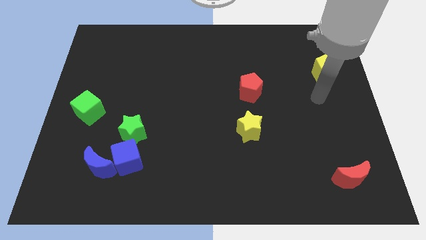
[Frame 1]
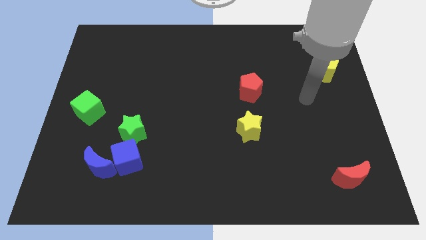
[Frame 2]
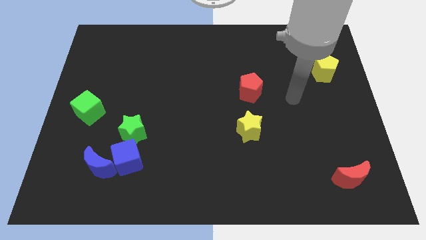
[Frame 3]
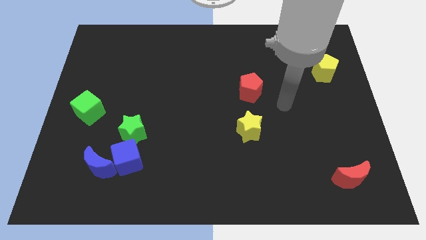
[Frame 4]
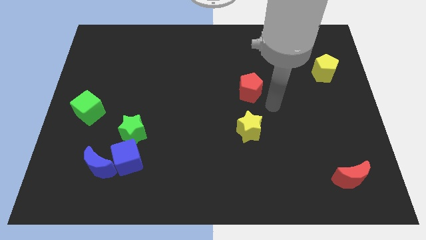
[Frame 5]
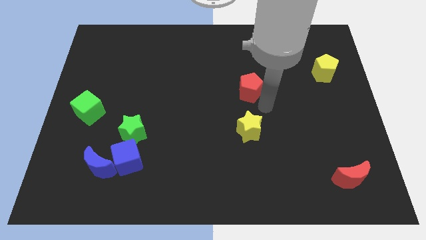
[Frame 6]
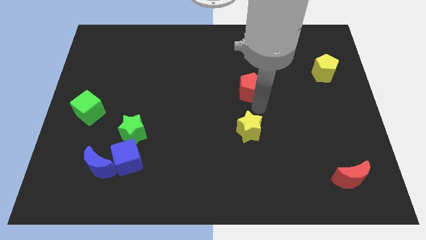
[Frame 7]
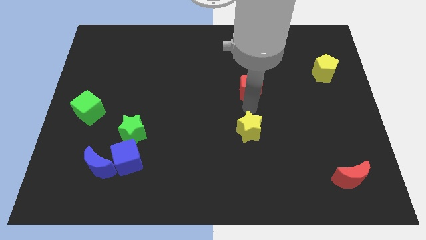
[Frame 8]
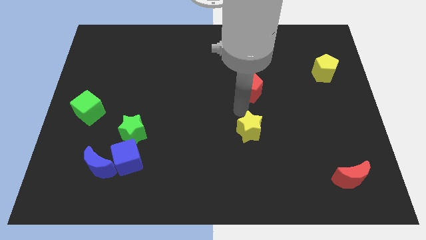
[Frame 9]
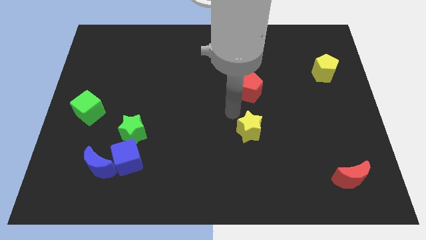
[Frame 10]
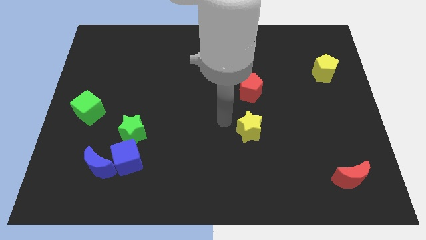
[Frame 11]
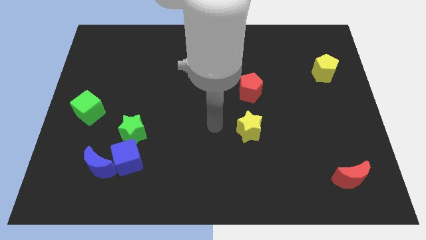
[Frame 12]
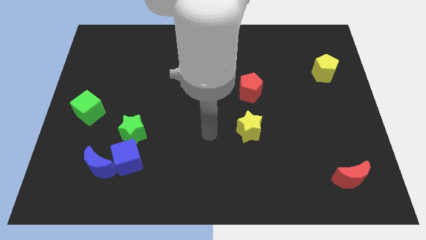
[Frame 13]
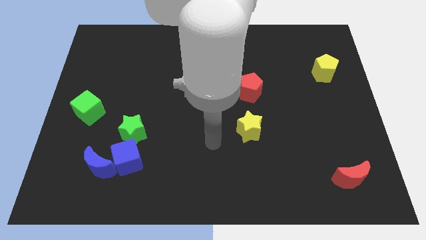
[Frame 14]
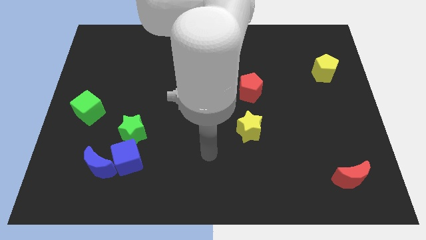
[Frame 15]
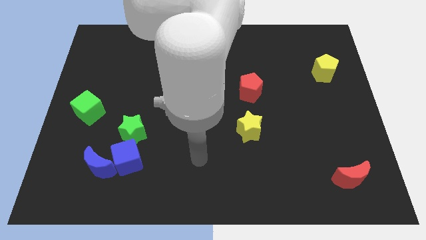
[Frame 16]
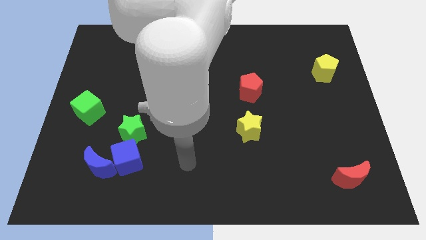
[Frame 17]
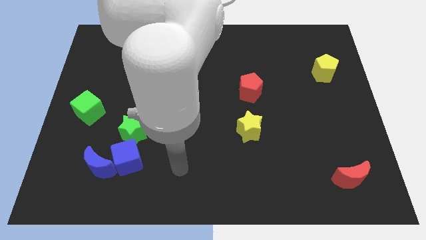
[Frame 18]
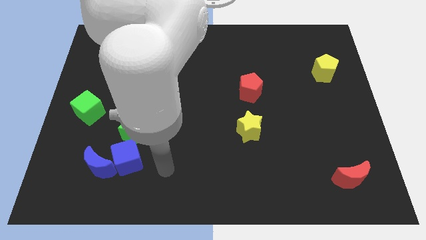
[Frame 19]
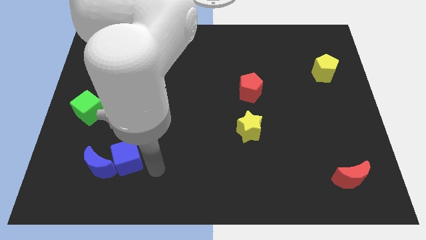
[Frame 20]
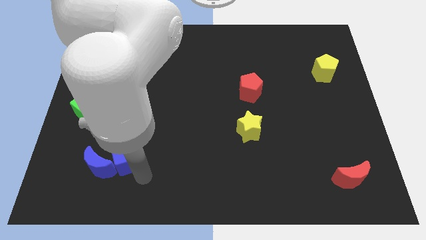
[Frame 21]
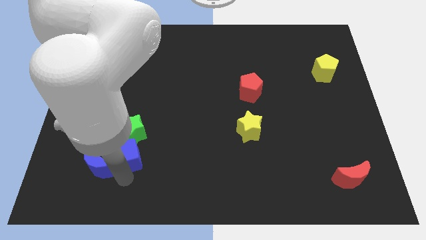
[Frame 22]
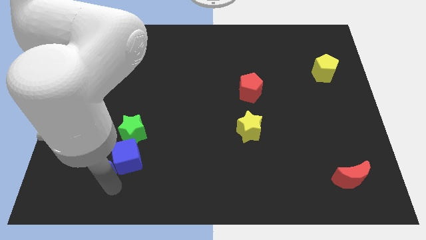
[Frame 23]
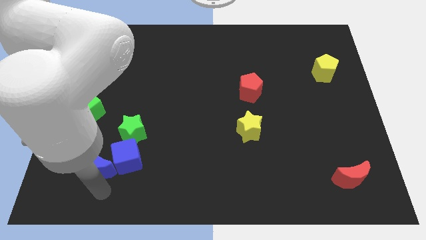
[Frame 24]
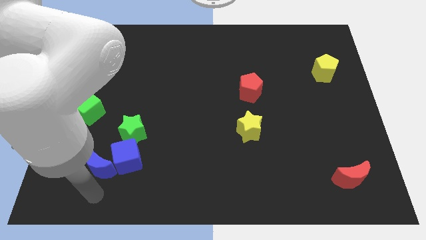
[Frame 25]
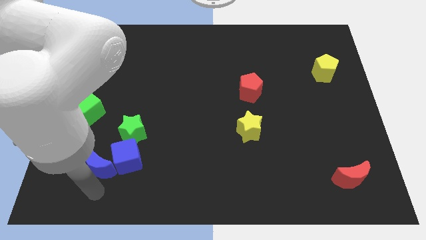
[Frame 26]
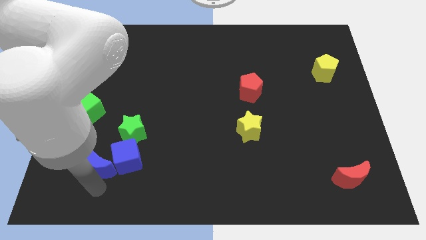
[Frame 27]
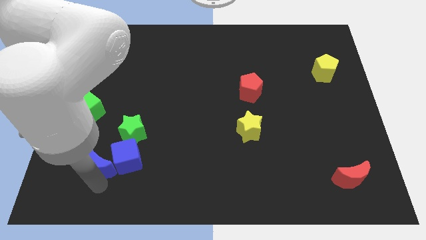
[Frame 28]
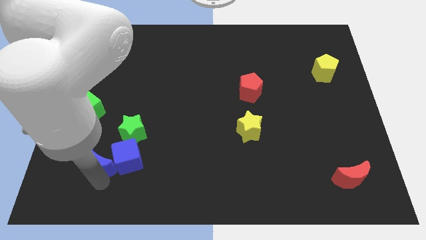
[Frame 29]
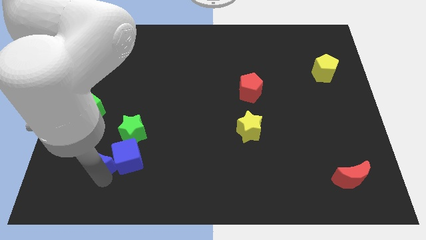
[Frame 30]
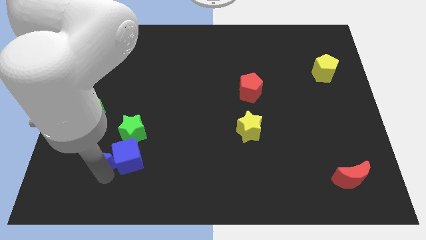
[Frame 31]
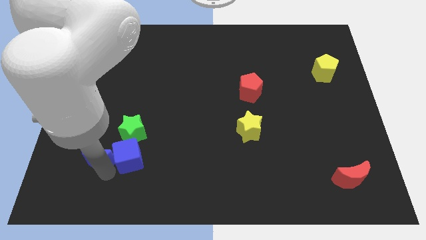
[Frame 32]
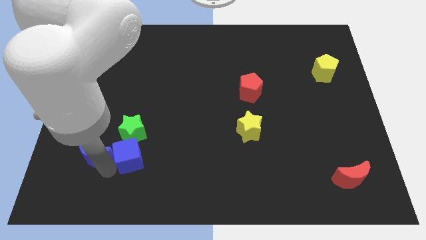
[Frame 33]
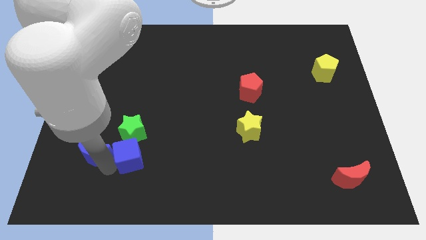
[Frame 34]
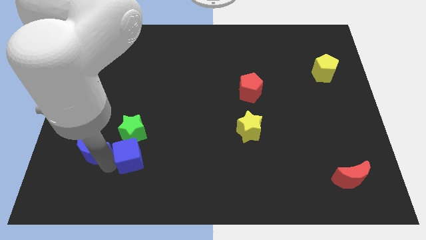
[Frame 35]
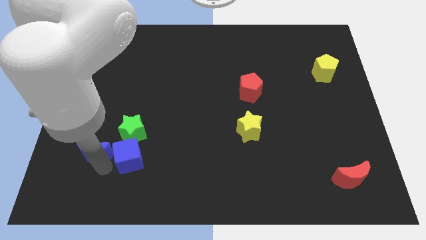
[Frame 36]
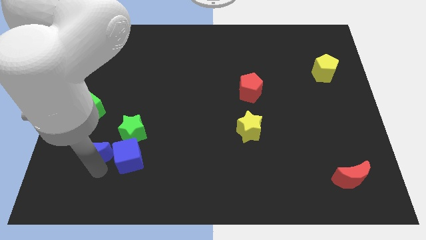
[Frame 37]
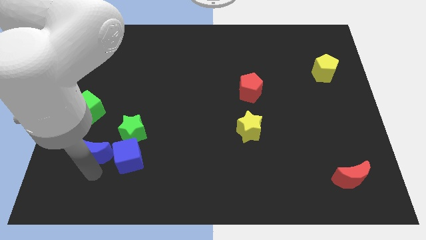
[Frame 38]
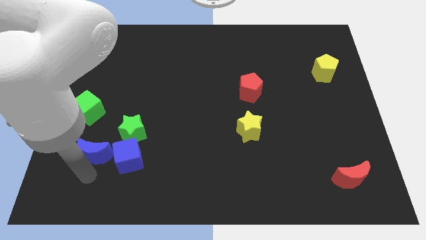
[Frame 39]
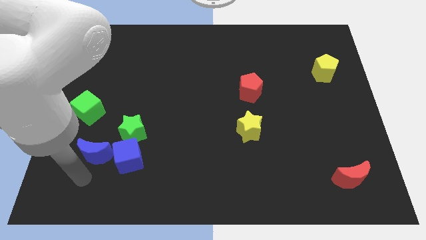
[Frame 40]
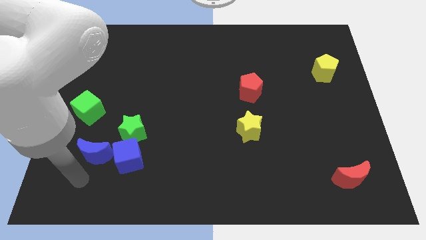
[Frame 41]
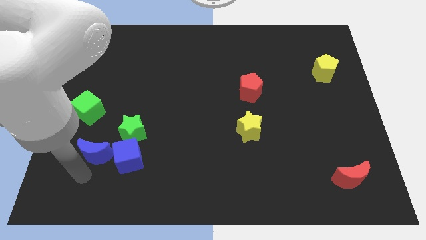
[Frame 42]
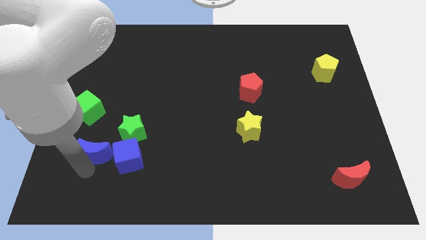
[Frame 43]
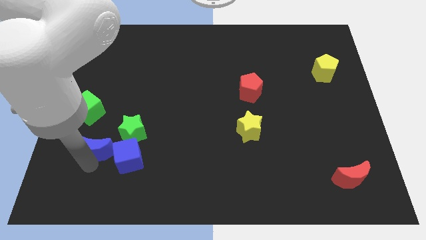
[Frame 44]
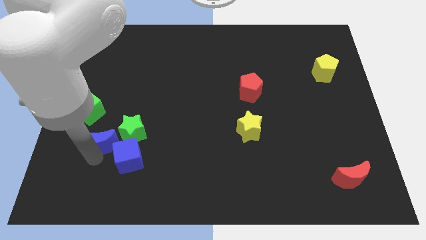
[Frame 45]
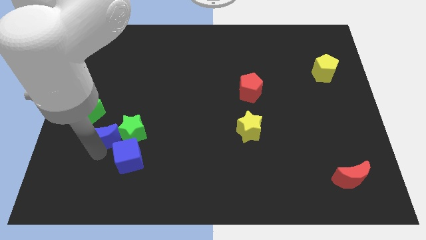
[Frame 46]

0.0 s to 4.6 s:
slightly push the blue moon upwards

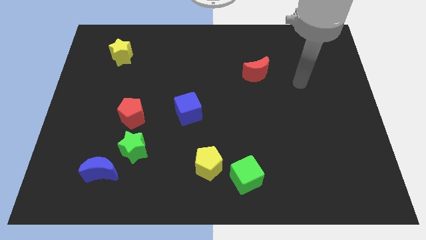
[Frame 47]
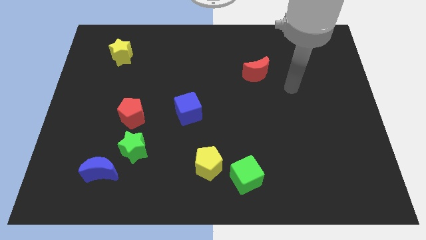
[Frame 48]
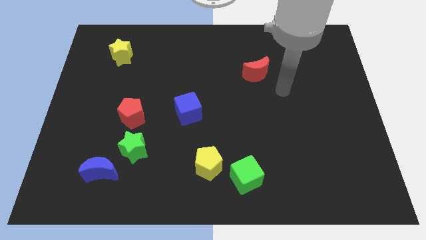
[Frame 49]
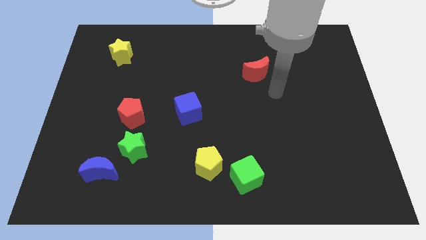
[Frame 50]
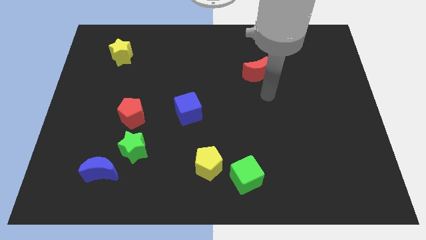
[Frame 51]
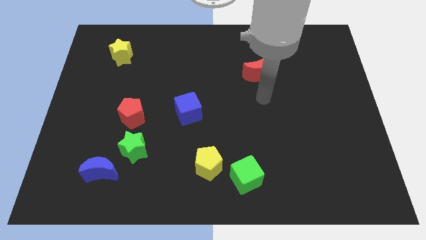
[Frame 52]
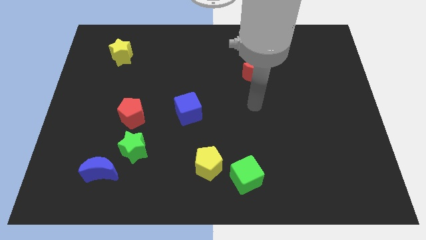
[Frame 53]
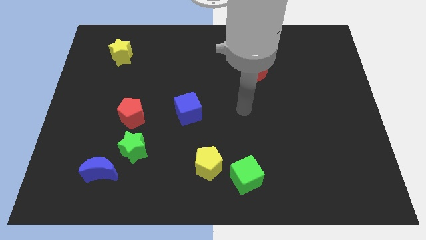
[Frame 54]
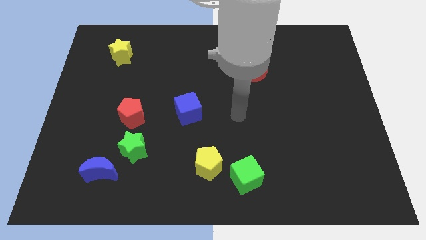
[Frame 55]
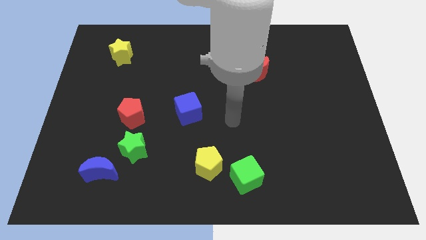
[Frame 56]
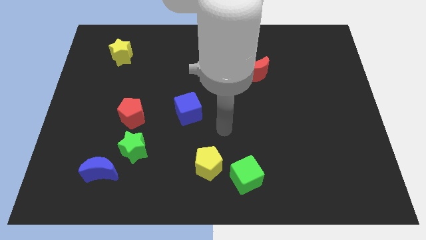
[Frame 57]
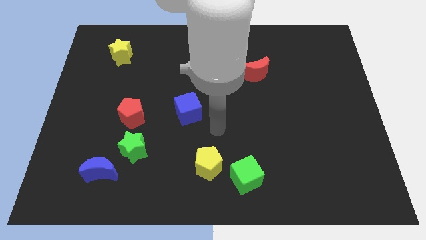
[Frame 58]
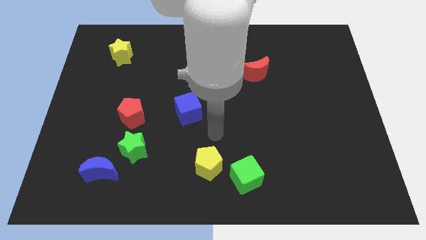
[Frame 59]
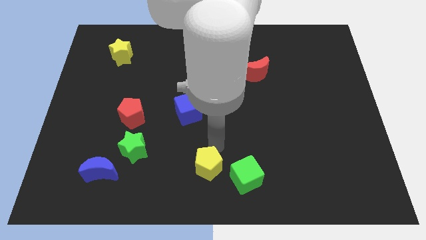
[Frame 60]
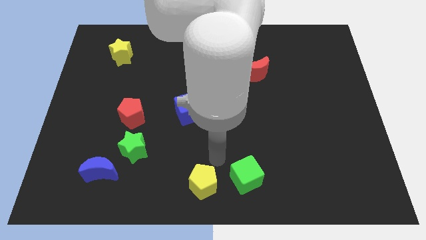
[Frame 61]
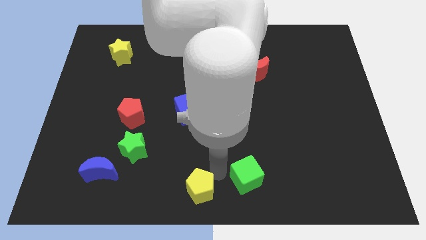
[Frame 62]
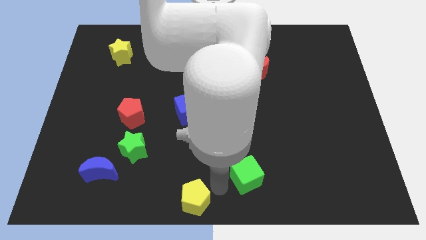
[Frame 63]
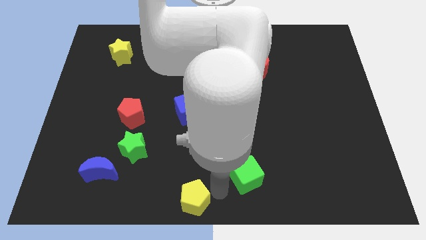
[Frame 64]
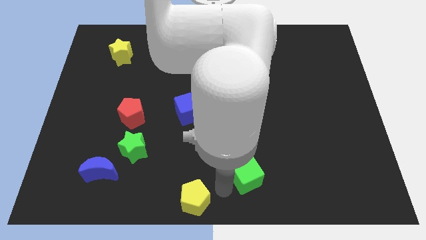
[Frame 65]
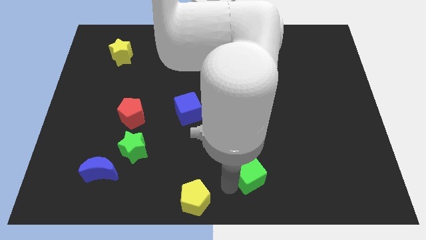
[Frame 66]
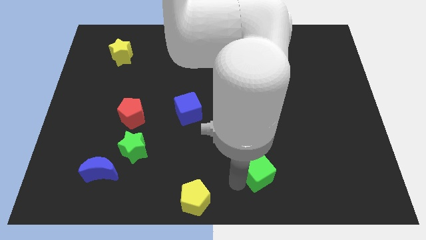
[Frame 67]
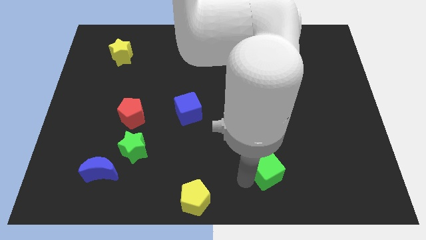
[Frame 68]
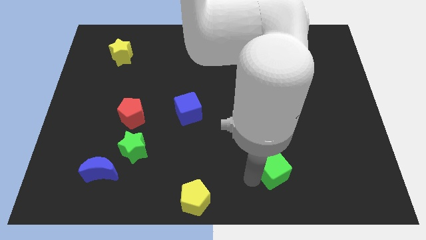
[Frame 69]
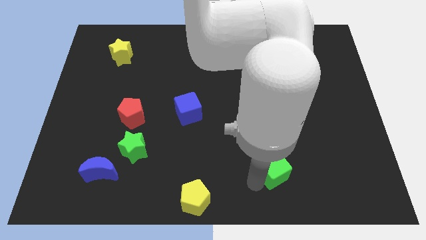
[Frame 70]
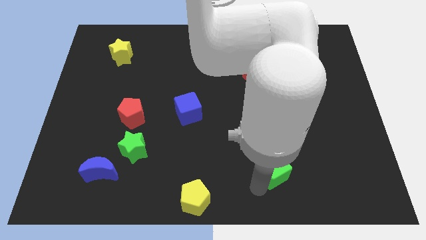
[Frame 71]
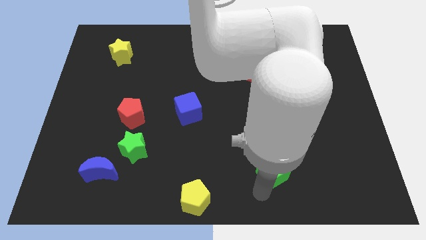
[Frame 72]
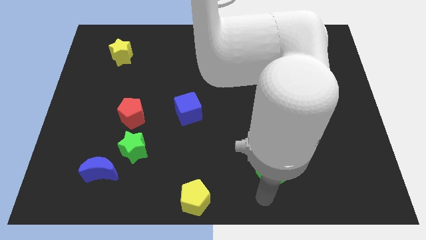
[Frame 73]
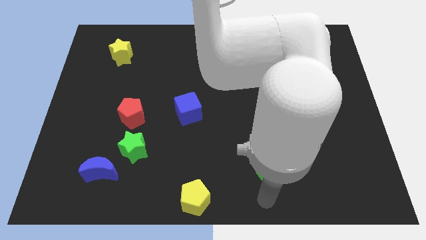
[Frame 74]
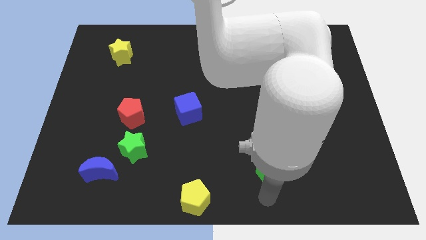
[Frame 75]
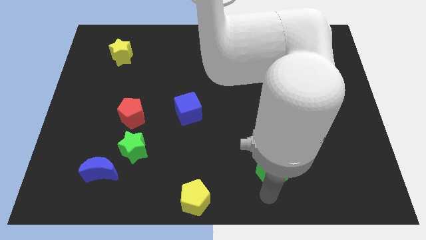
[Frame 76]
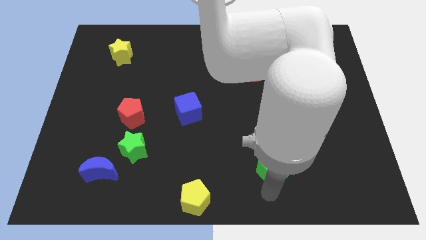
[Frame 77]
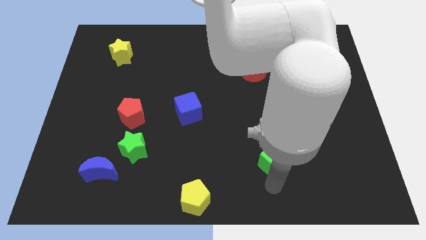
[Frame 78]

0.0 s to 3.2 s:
slightly slide the green cube upwards and right

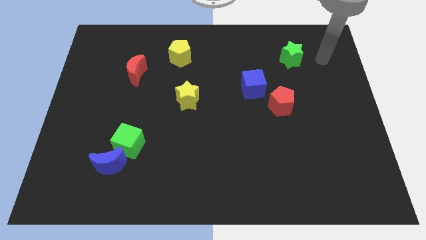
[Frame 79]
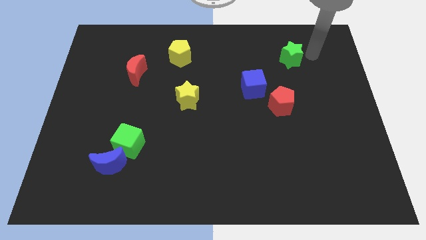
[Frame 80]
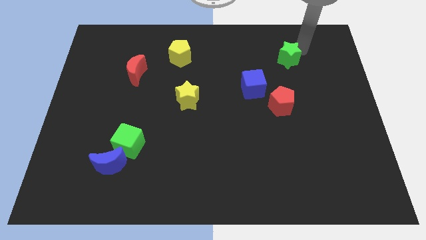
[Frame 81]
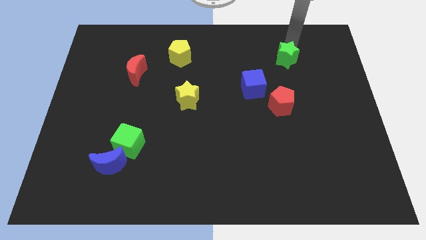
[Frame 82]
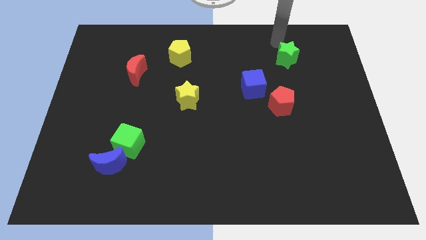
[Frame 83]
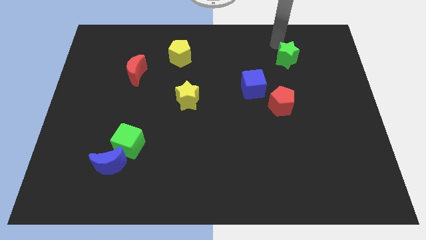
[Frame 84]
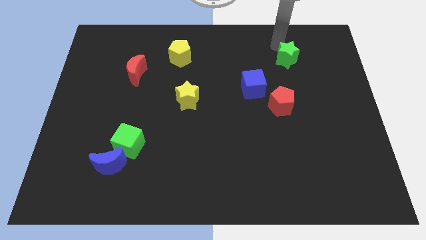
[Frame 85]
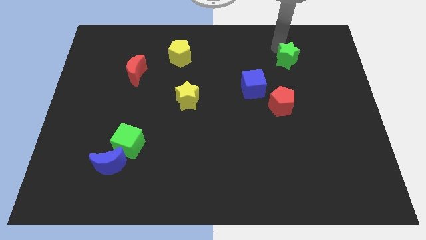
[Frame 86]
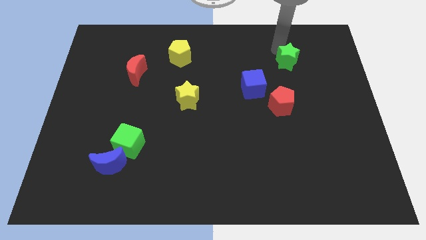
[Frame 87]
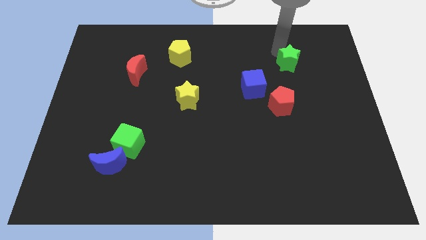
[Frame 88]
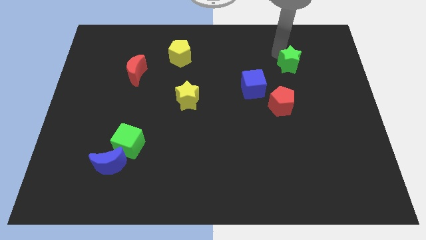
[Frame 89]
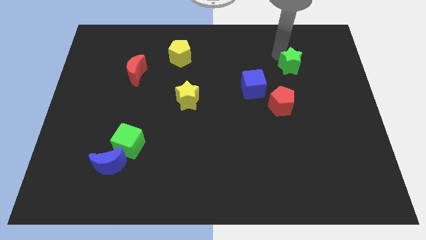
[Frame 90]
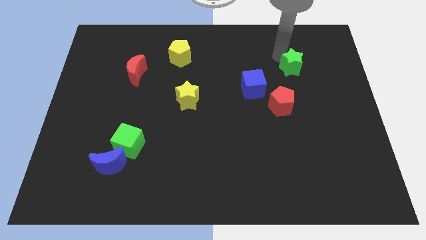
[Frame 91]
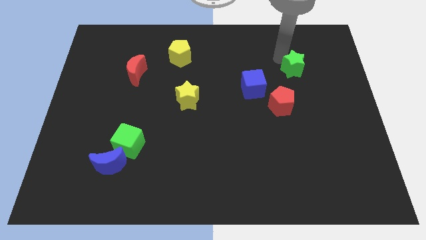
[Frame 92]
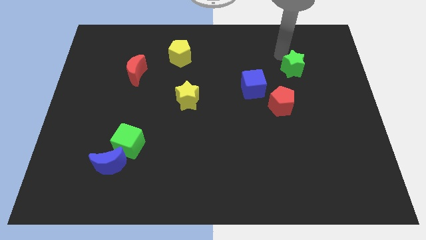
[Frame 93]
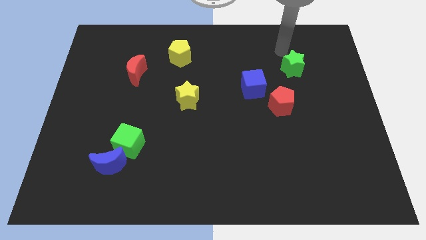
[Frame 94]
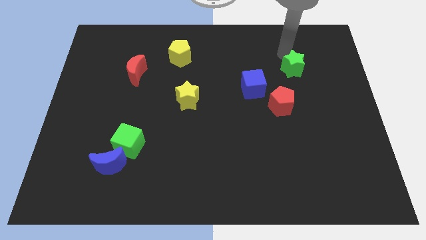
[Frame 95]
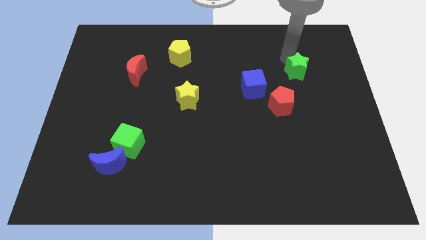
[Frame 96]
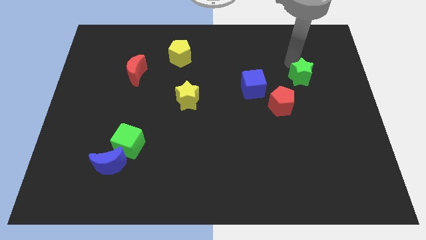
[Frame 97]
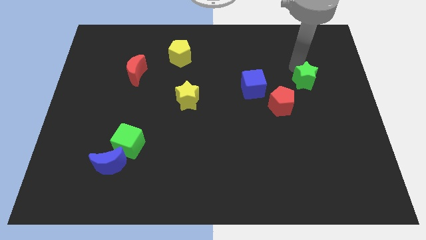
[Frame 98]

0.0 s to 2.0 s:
push the green star down a little bit
